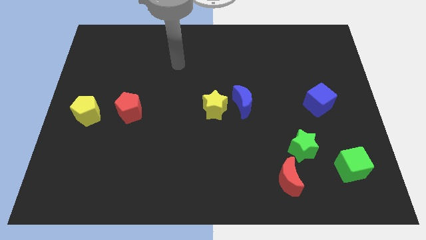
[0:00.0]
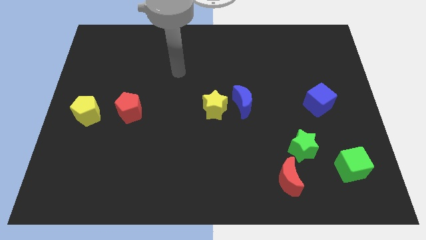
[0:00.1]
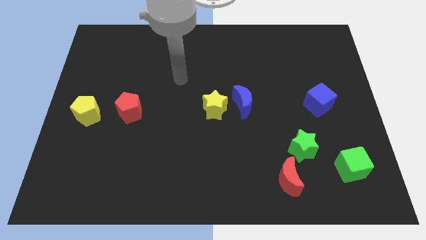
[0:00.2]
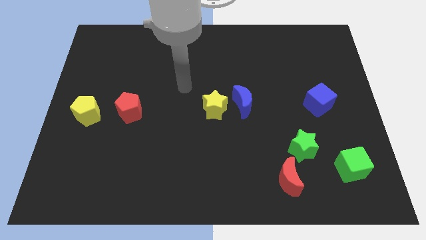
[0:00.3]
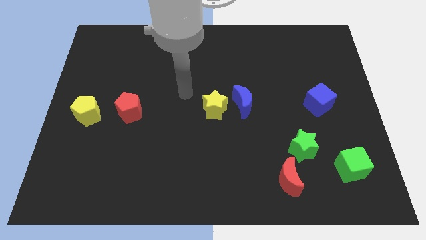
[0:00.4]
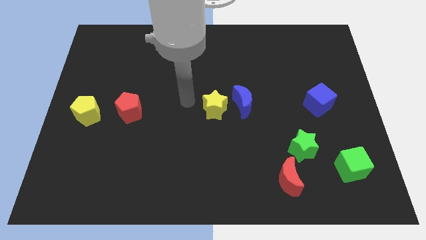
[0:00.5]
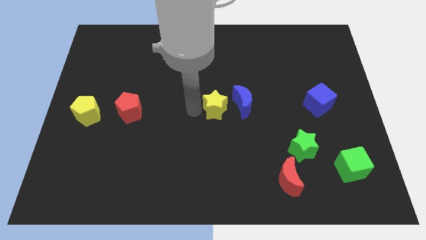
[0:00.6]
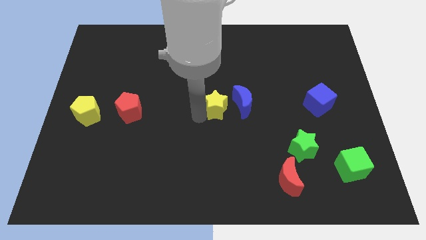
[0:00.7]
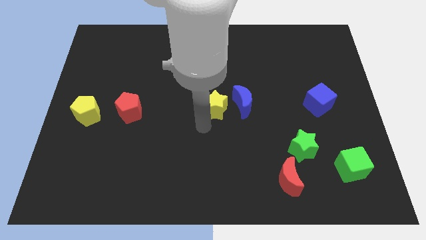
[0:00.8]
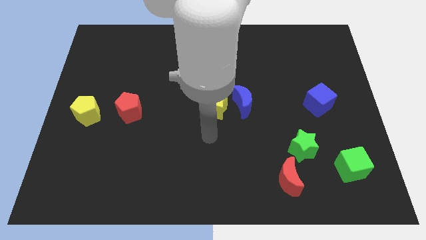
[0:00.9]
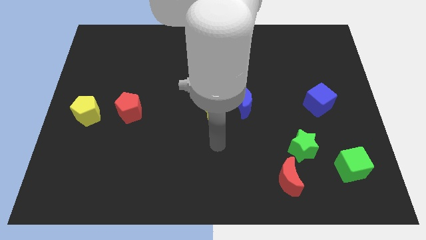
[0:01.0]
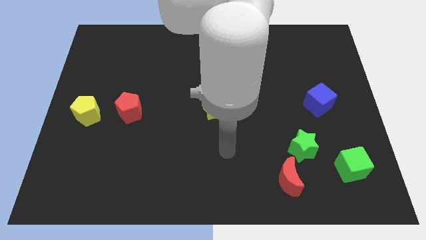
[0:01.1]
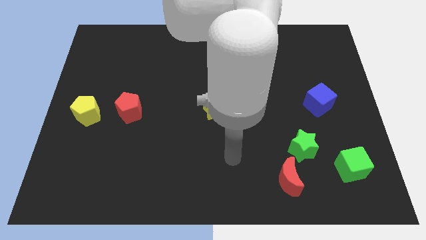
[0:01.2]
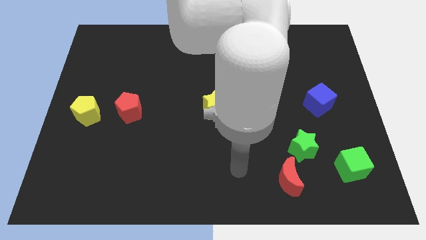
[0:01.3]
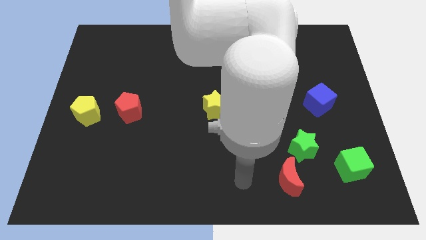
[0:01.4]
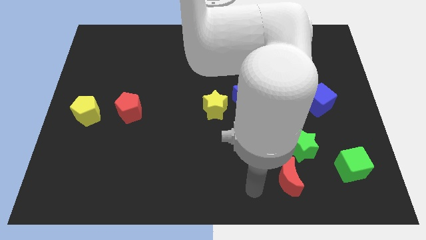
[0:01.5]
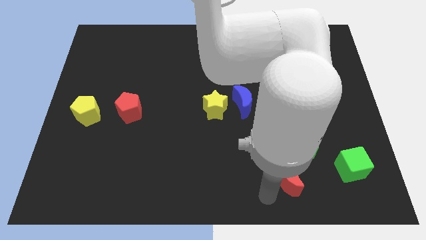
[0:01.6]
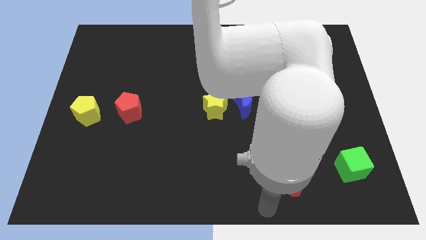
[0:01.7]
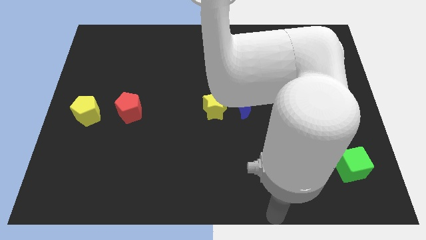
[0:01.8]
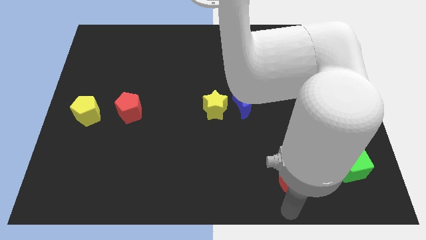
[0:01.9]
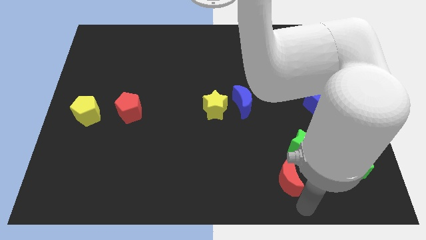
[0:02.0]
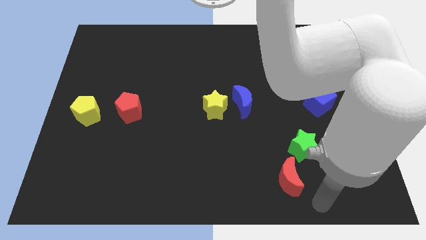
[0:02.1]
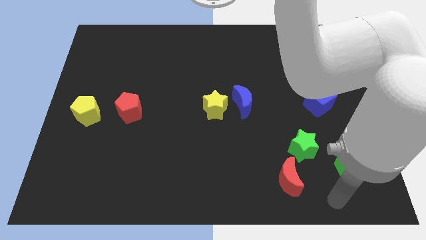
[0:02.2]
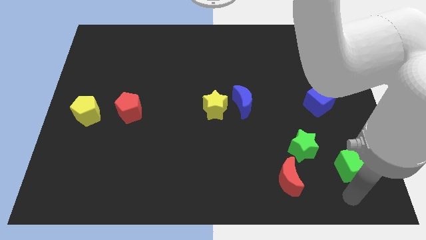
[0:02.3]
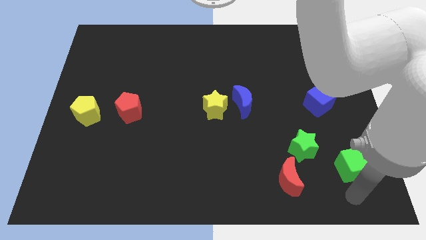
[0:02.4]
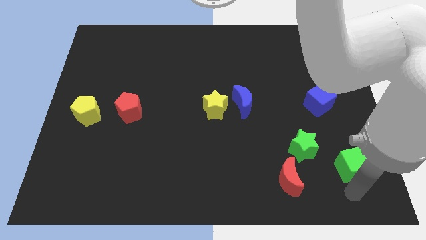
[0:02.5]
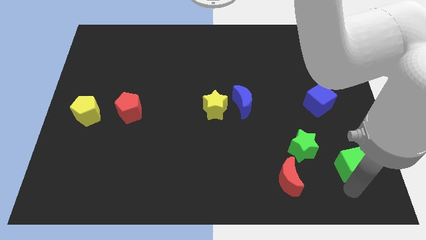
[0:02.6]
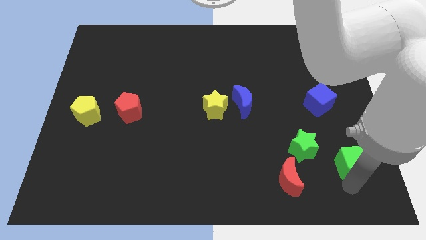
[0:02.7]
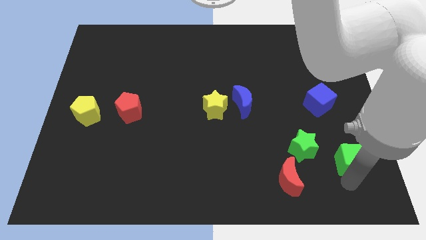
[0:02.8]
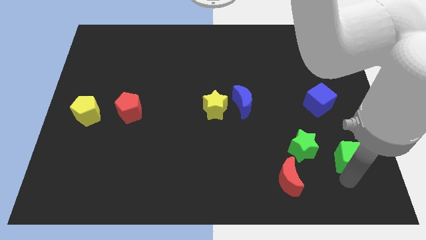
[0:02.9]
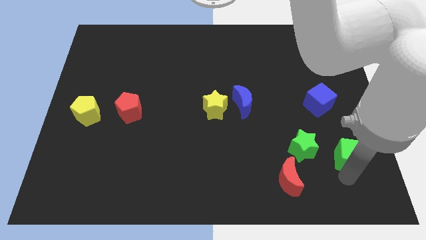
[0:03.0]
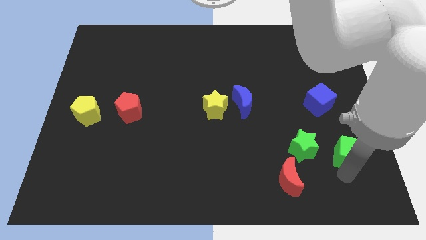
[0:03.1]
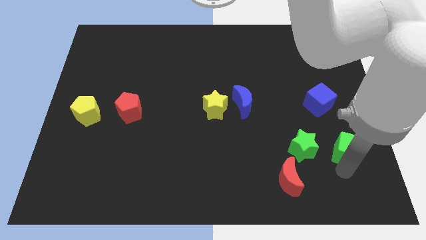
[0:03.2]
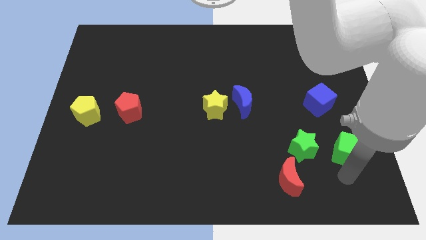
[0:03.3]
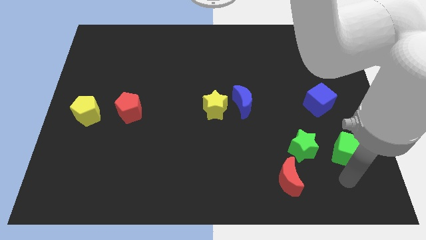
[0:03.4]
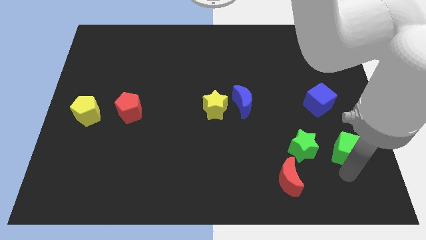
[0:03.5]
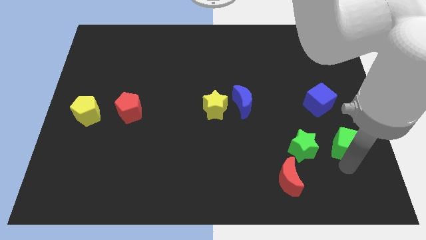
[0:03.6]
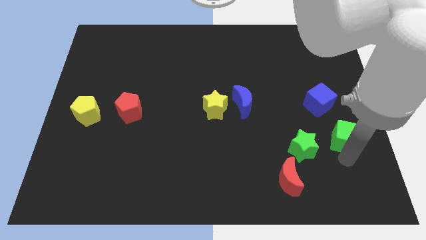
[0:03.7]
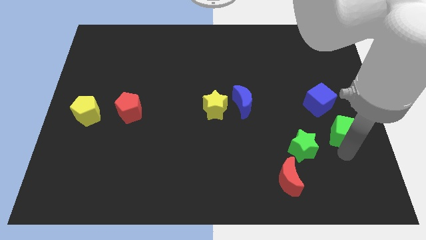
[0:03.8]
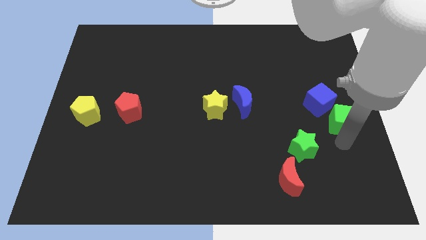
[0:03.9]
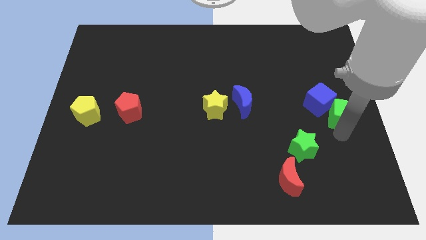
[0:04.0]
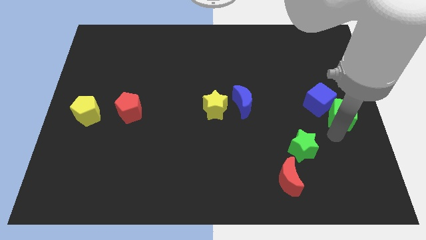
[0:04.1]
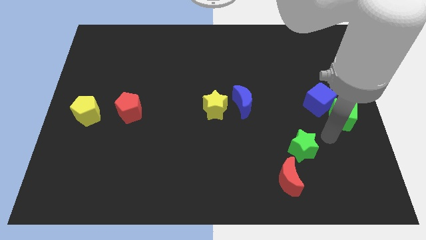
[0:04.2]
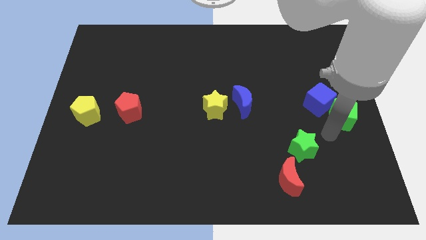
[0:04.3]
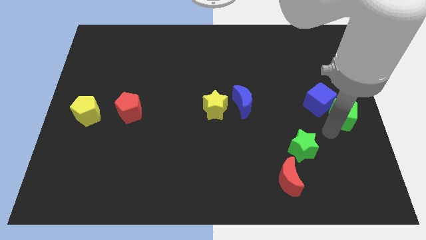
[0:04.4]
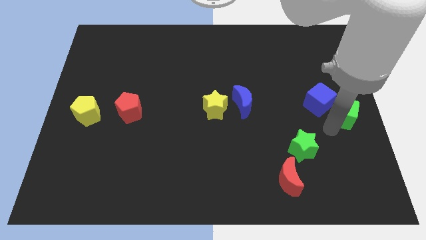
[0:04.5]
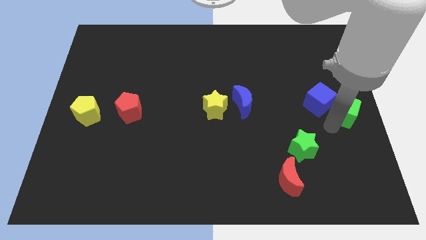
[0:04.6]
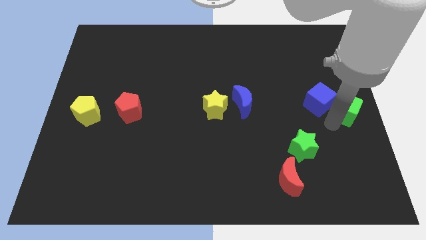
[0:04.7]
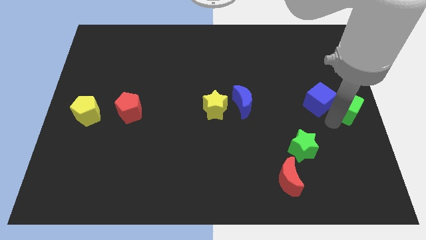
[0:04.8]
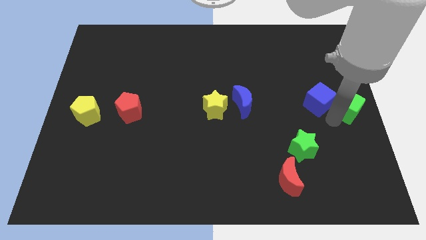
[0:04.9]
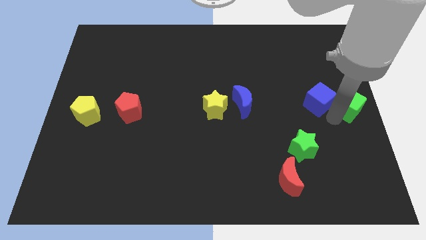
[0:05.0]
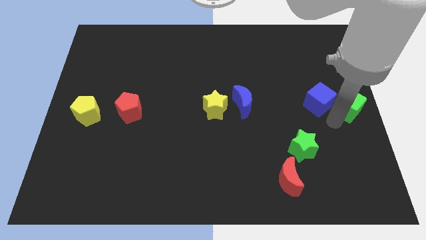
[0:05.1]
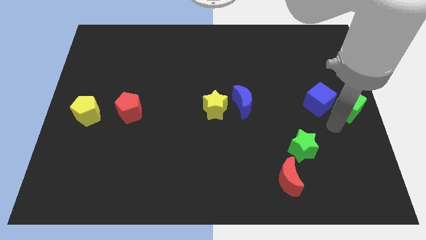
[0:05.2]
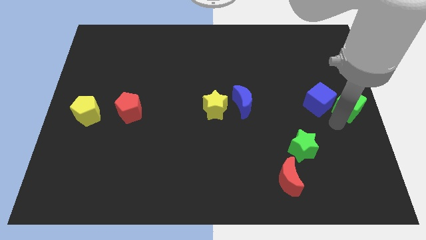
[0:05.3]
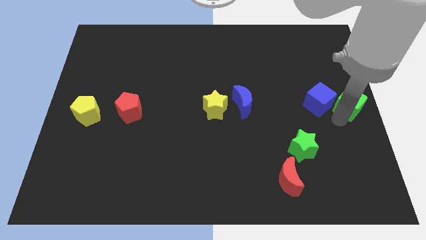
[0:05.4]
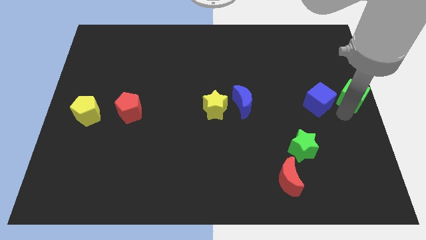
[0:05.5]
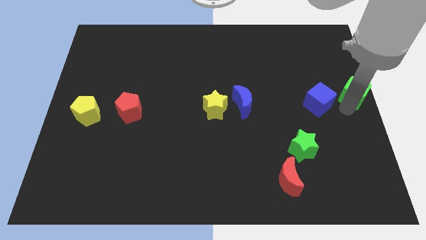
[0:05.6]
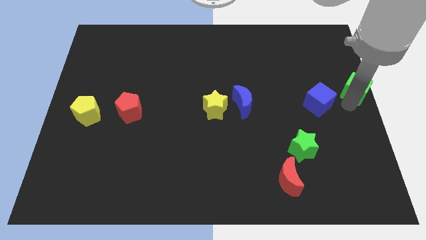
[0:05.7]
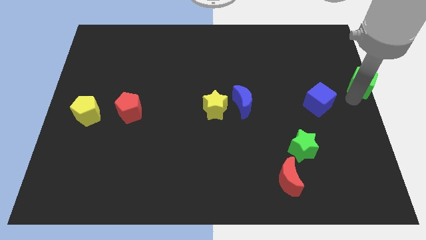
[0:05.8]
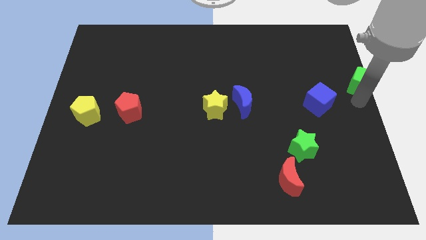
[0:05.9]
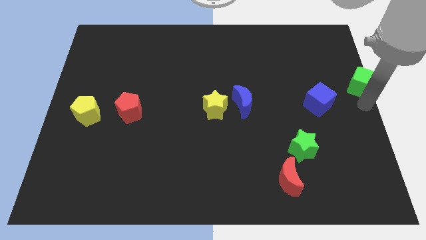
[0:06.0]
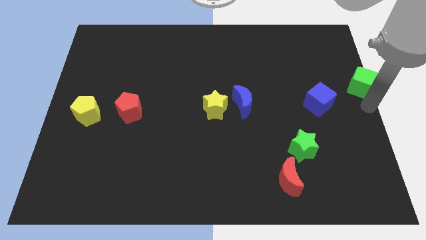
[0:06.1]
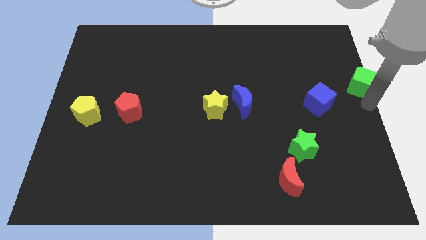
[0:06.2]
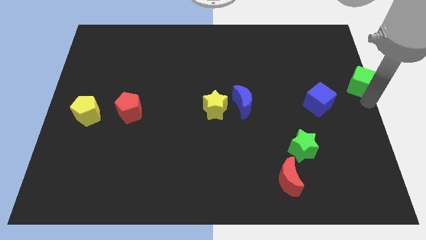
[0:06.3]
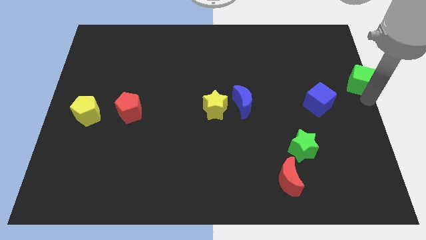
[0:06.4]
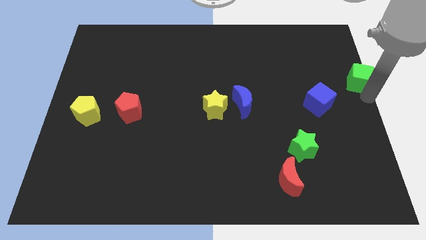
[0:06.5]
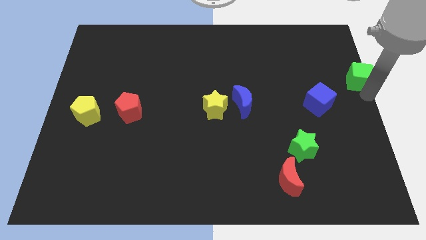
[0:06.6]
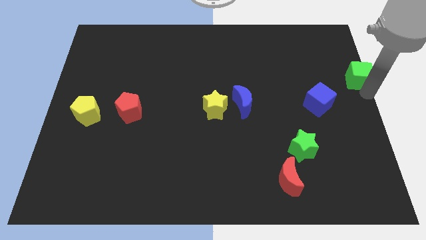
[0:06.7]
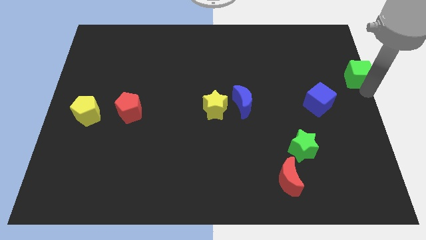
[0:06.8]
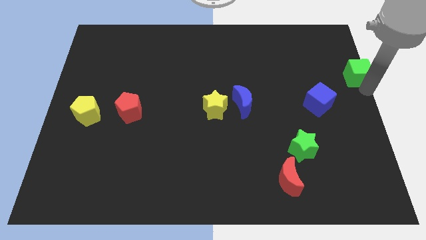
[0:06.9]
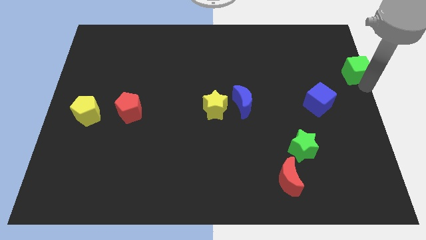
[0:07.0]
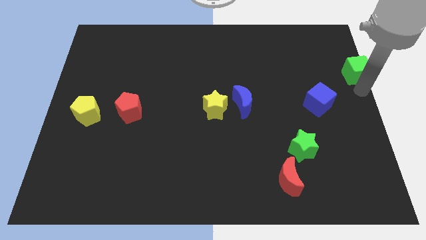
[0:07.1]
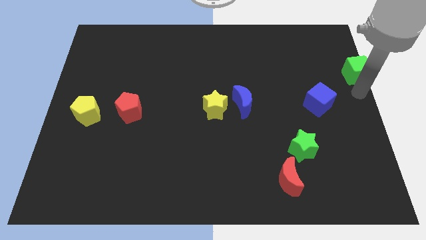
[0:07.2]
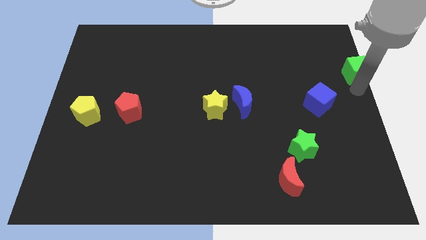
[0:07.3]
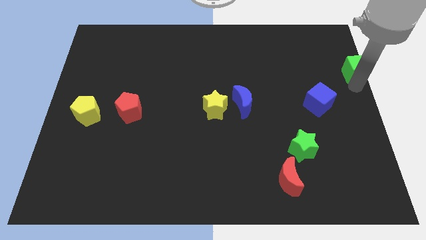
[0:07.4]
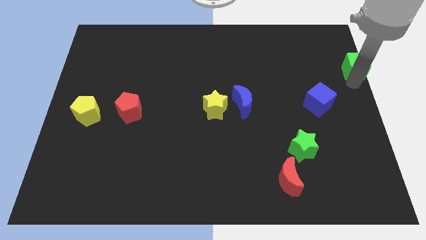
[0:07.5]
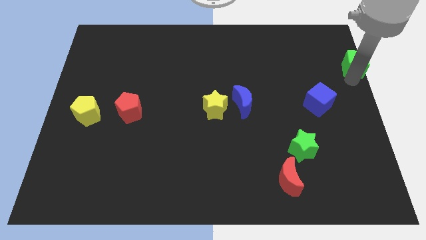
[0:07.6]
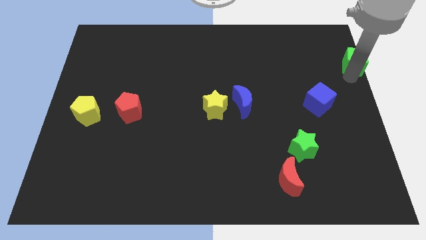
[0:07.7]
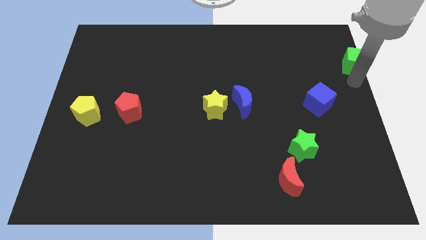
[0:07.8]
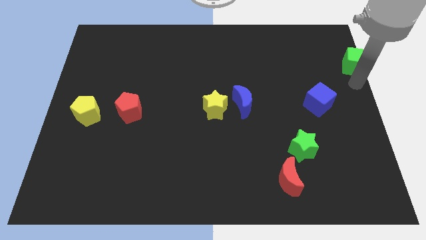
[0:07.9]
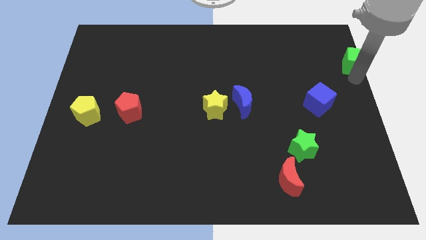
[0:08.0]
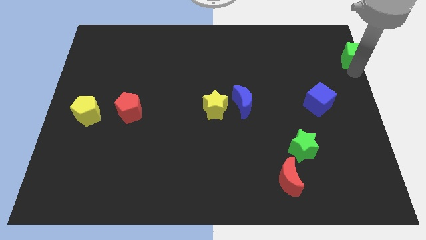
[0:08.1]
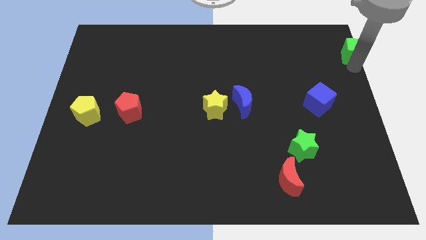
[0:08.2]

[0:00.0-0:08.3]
put the green cube to the upper right corner
